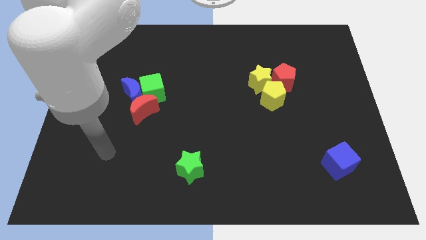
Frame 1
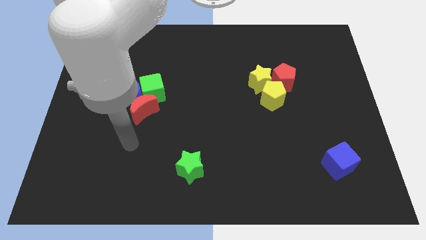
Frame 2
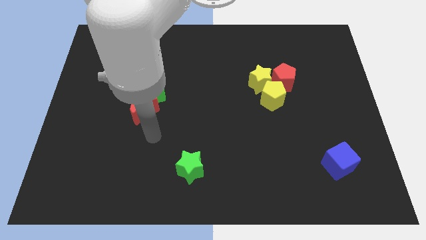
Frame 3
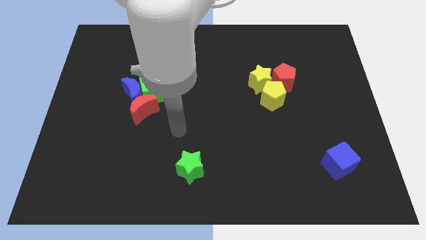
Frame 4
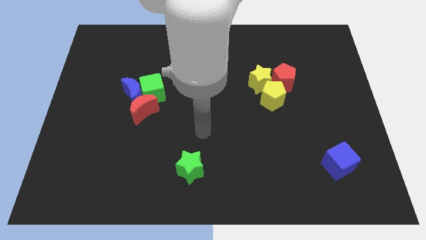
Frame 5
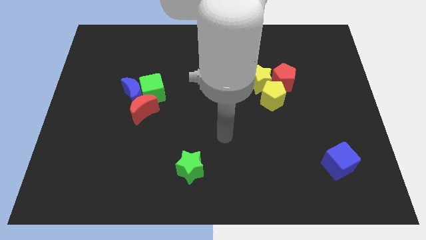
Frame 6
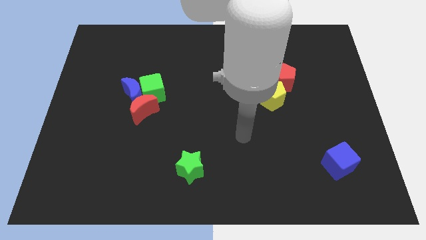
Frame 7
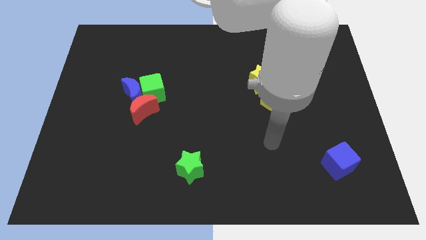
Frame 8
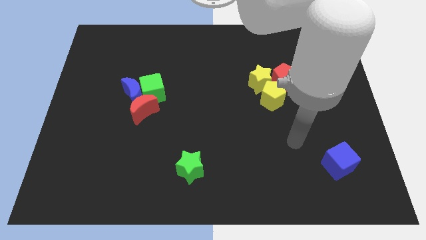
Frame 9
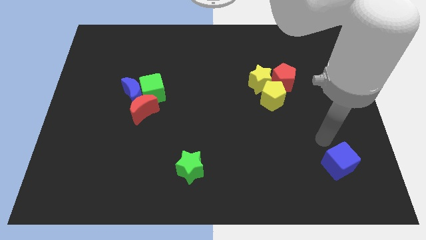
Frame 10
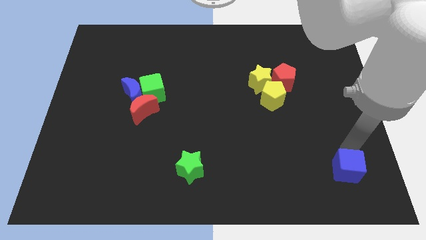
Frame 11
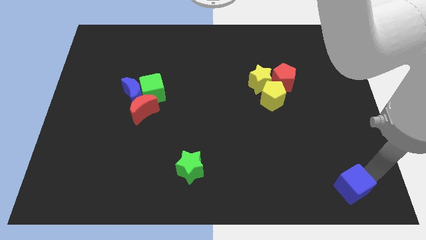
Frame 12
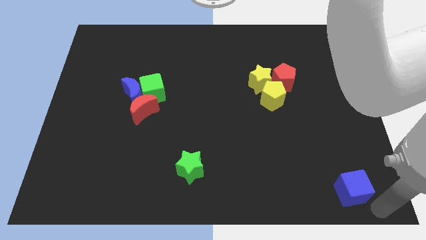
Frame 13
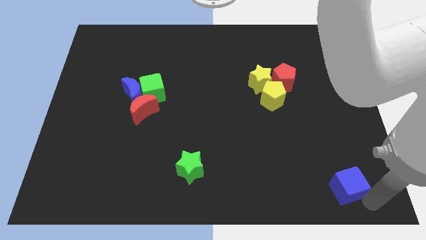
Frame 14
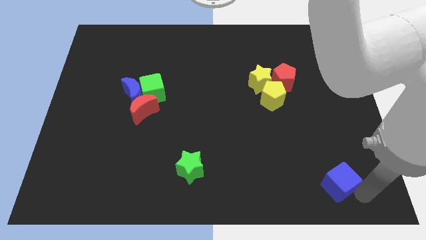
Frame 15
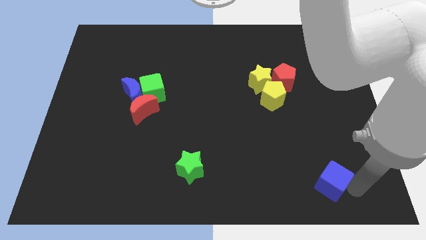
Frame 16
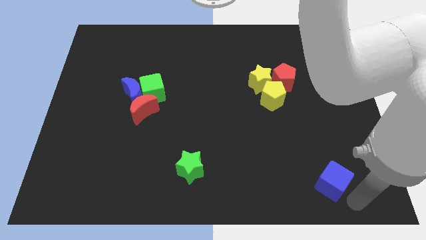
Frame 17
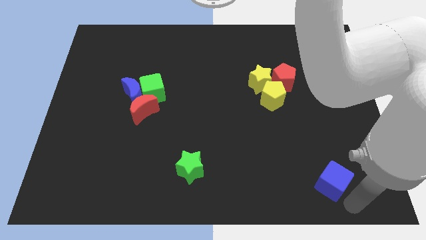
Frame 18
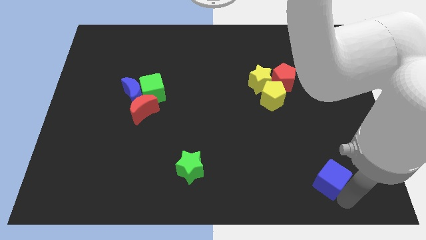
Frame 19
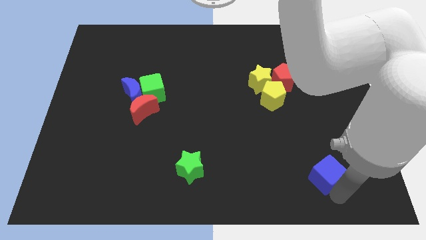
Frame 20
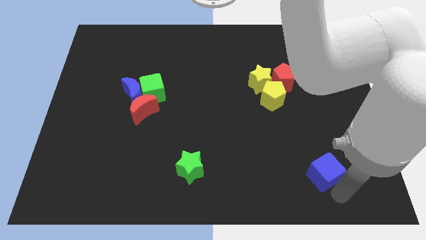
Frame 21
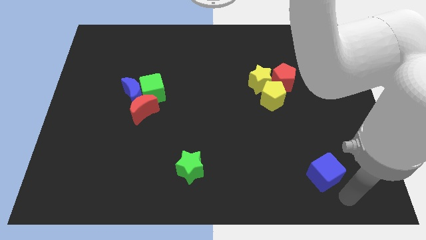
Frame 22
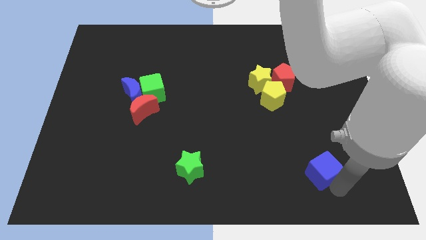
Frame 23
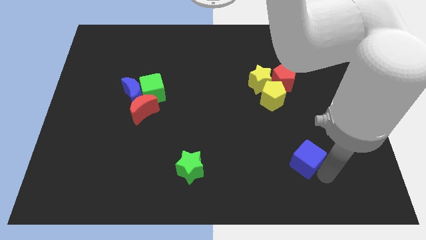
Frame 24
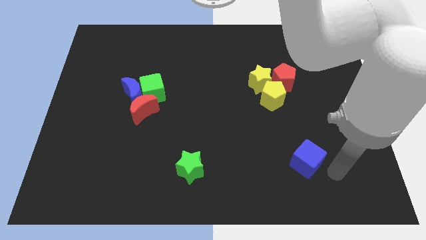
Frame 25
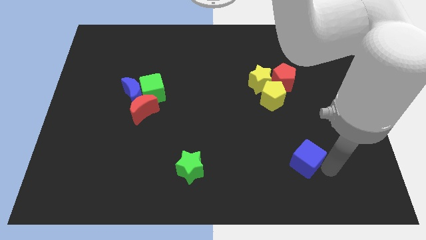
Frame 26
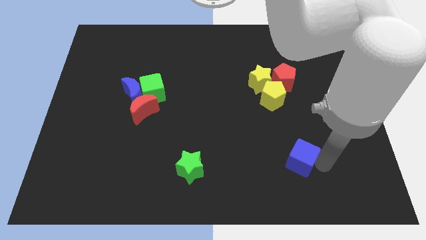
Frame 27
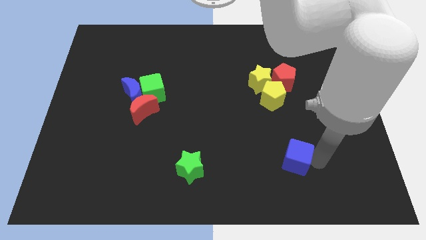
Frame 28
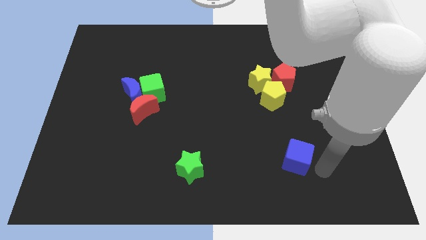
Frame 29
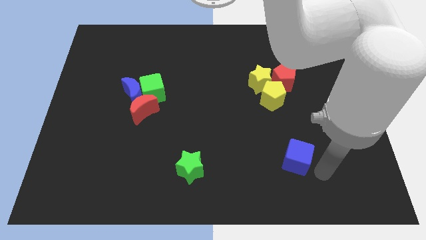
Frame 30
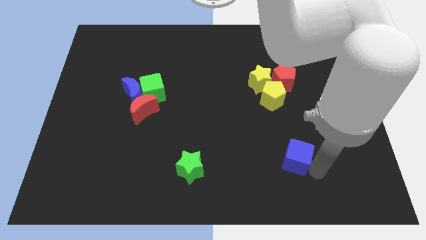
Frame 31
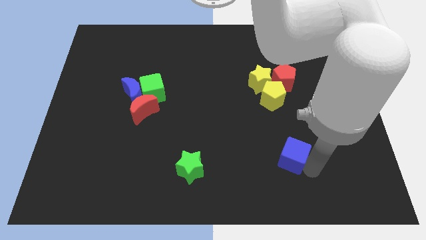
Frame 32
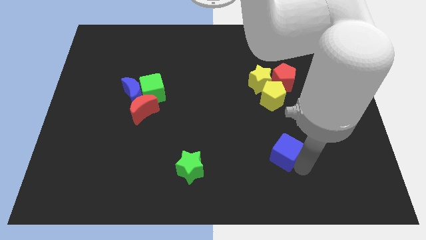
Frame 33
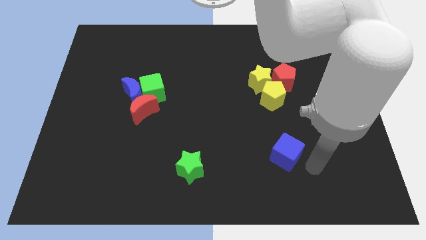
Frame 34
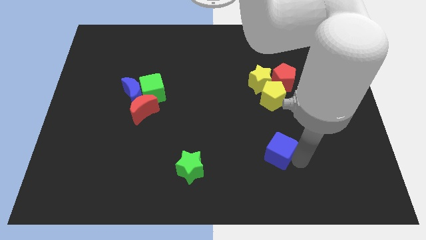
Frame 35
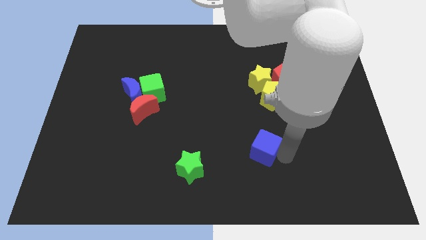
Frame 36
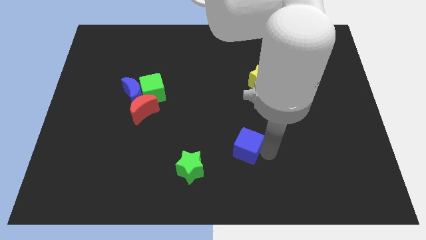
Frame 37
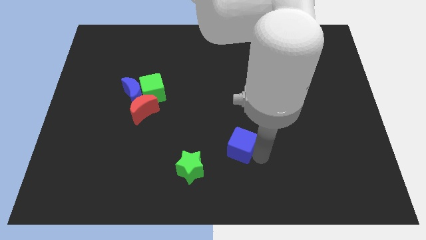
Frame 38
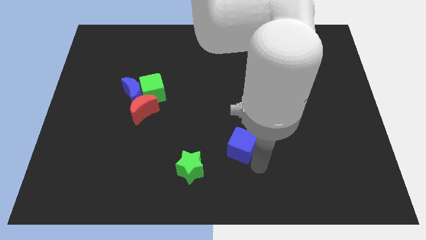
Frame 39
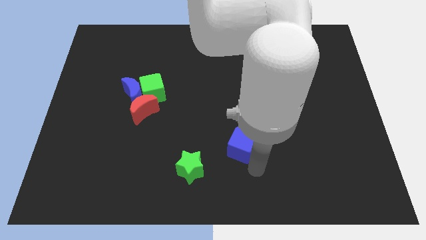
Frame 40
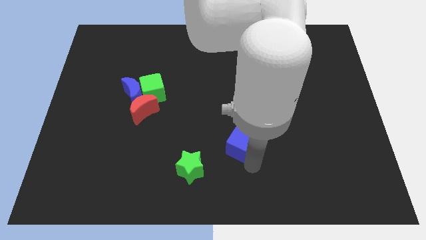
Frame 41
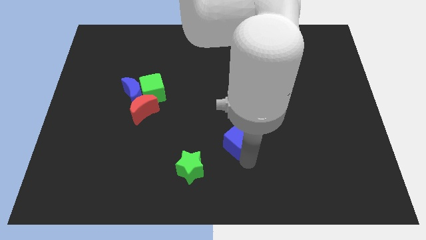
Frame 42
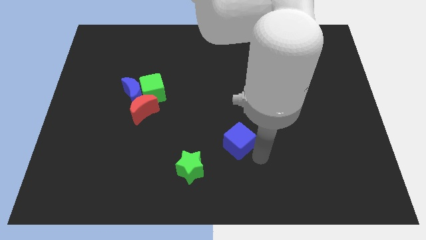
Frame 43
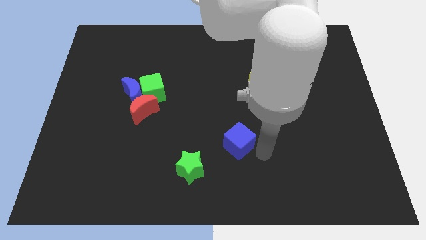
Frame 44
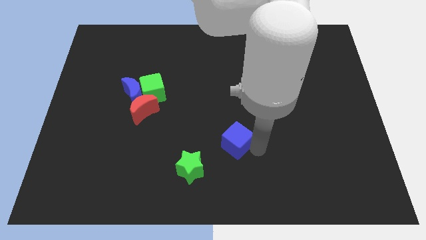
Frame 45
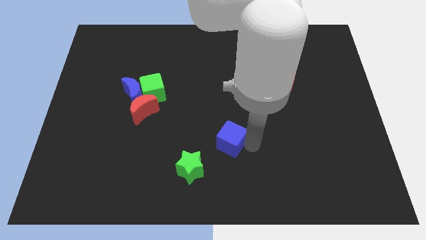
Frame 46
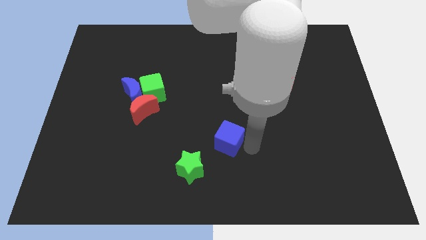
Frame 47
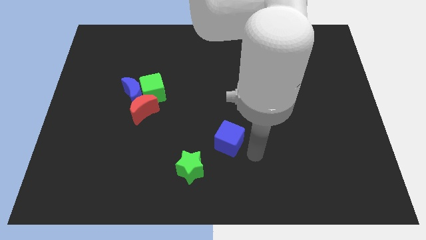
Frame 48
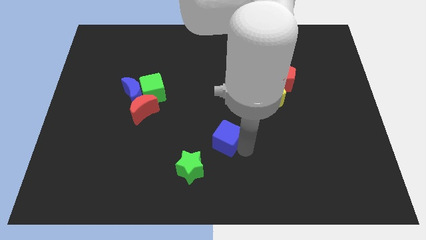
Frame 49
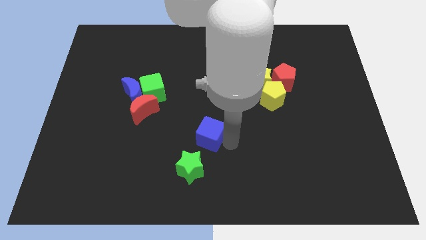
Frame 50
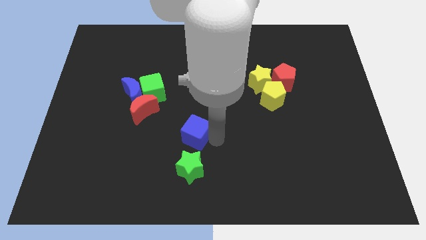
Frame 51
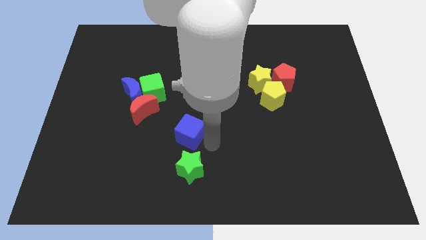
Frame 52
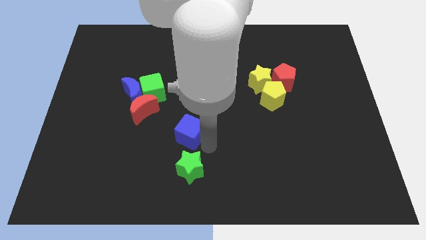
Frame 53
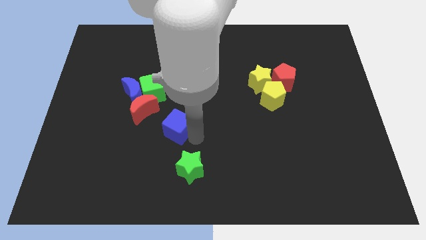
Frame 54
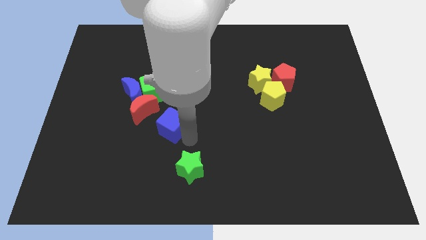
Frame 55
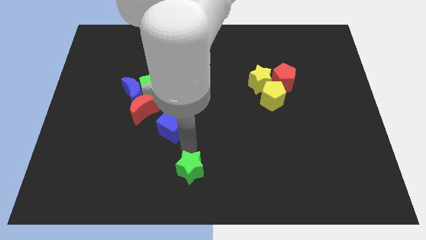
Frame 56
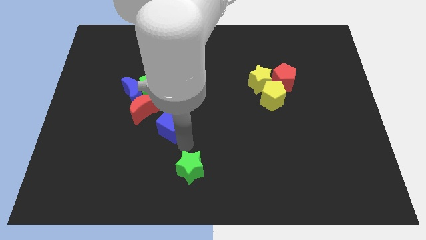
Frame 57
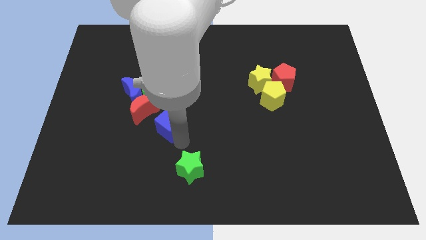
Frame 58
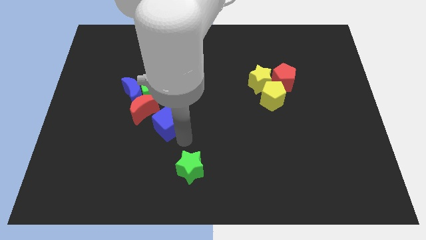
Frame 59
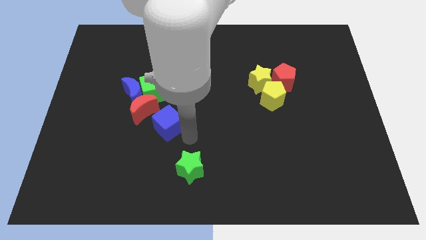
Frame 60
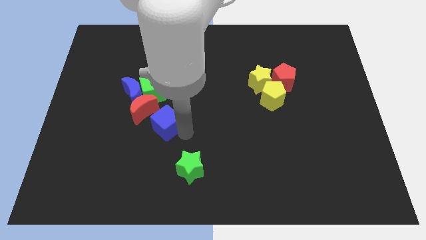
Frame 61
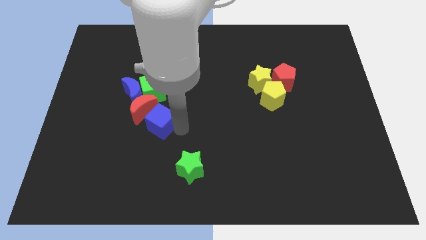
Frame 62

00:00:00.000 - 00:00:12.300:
put the blue cube to the red moon

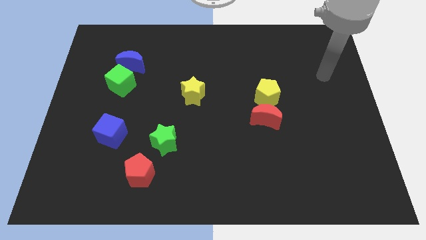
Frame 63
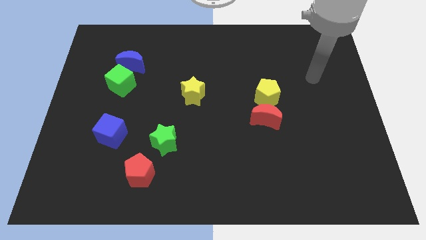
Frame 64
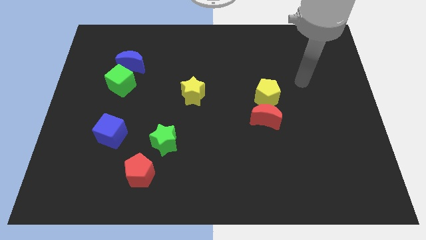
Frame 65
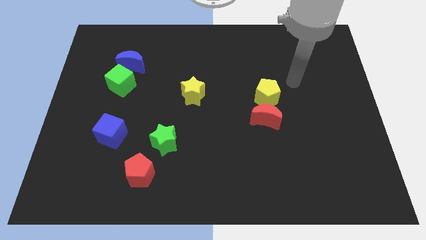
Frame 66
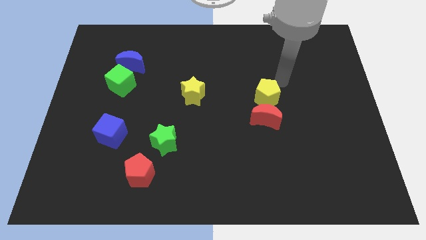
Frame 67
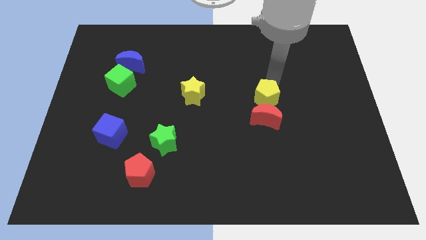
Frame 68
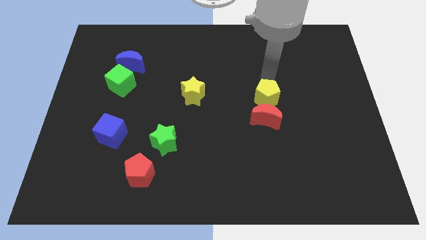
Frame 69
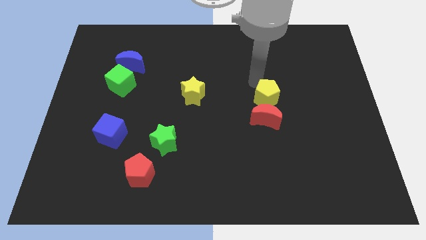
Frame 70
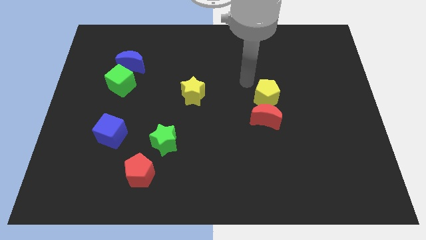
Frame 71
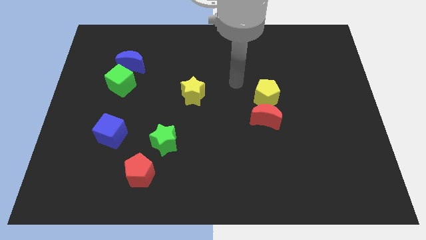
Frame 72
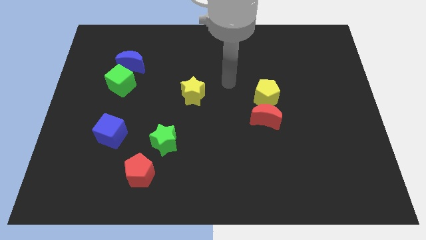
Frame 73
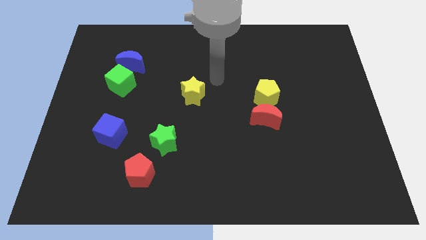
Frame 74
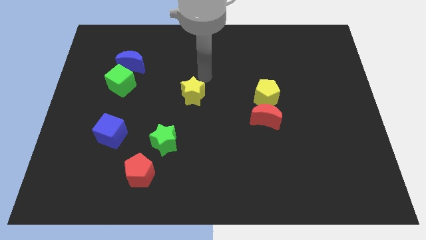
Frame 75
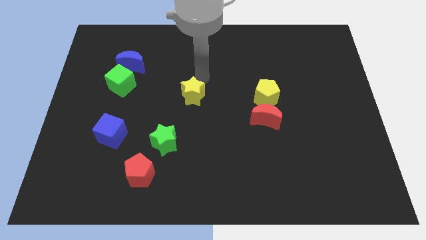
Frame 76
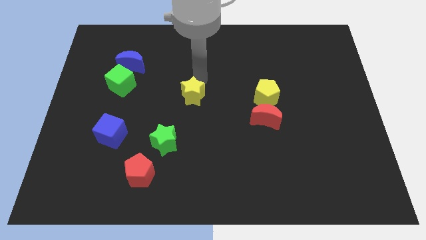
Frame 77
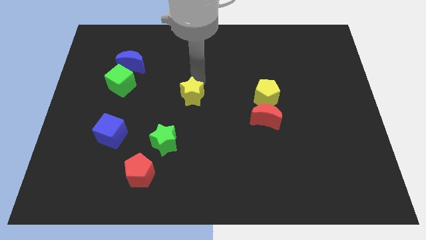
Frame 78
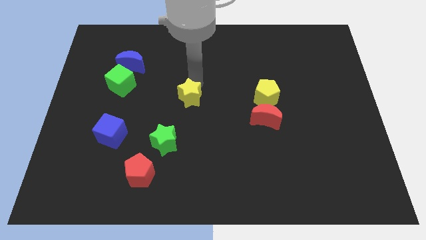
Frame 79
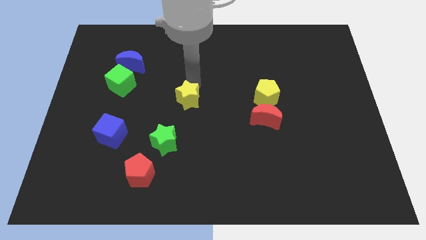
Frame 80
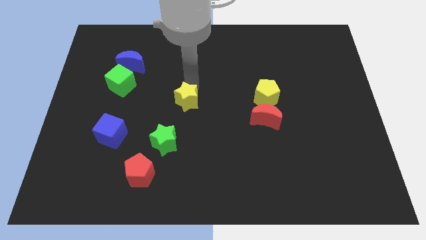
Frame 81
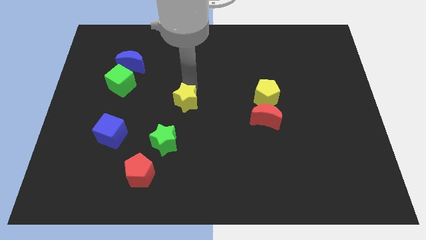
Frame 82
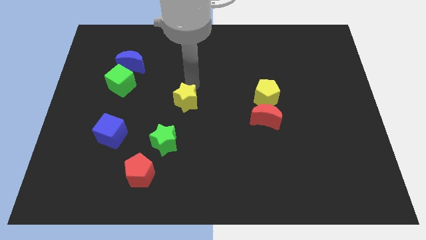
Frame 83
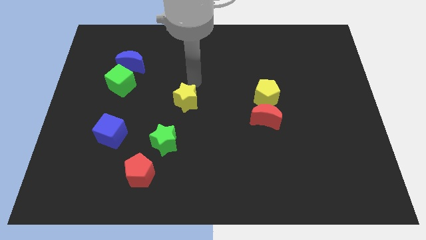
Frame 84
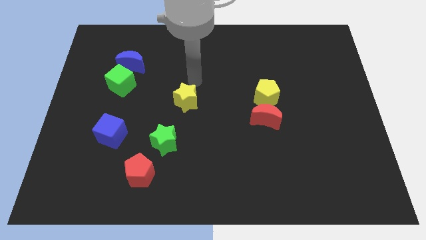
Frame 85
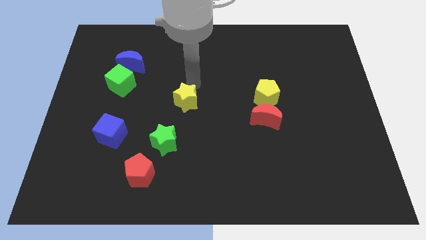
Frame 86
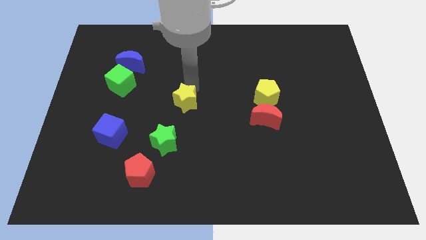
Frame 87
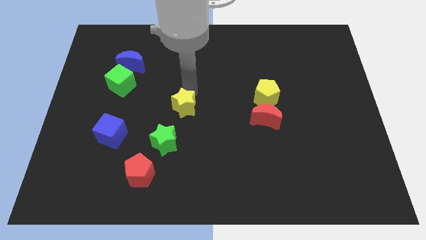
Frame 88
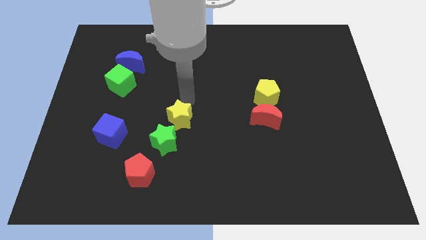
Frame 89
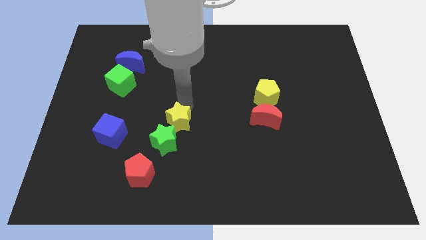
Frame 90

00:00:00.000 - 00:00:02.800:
push the yellow star next to the green star
